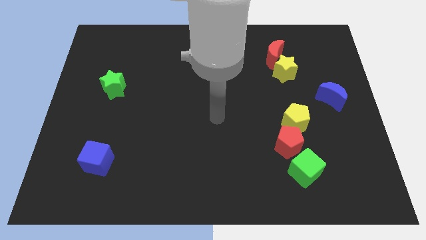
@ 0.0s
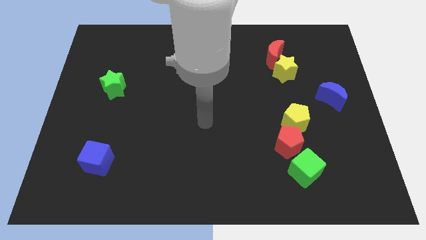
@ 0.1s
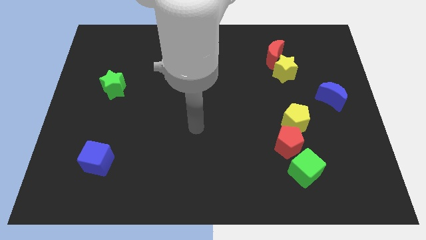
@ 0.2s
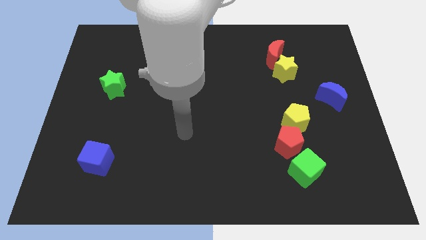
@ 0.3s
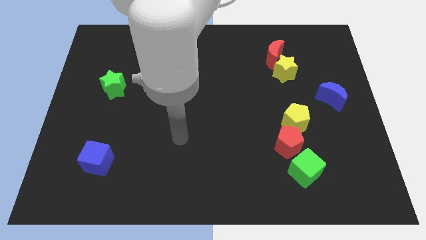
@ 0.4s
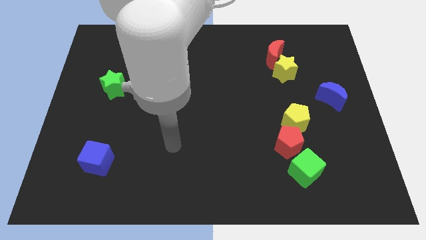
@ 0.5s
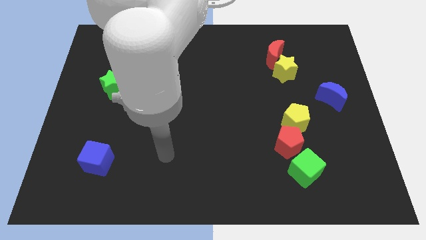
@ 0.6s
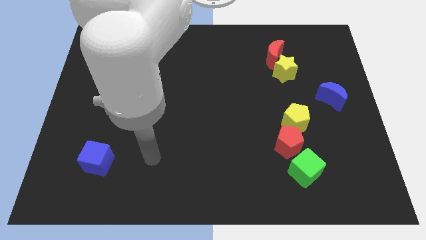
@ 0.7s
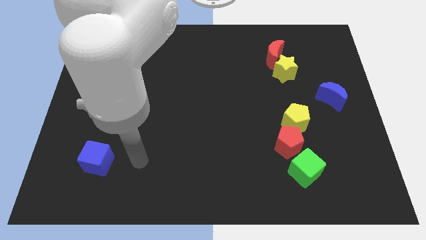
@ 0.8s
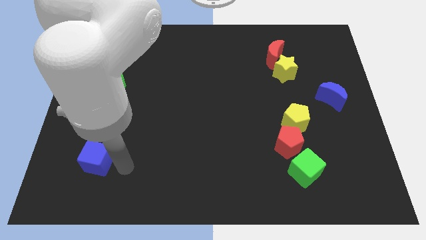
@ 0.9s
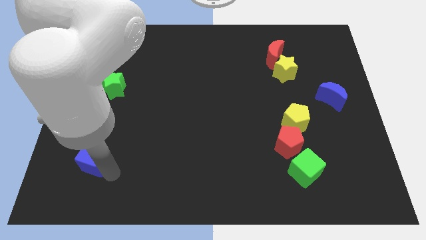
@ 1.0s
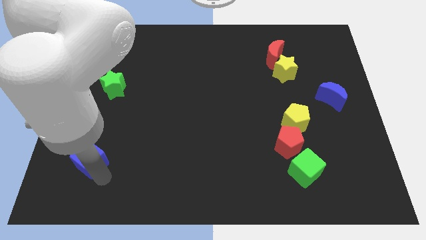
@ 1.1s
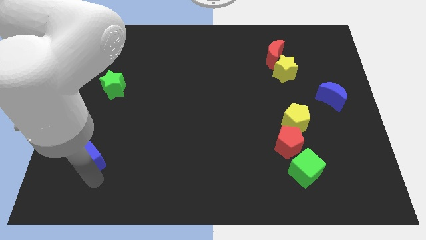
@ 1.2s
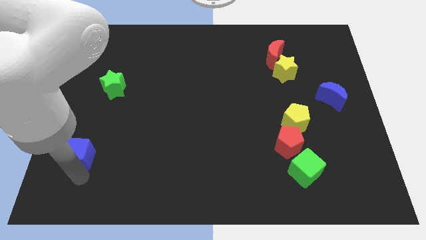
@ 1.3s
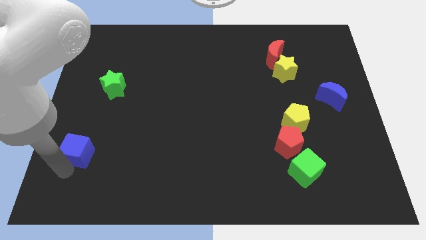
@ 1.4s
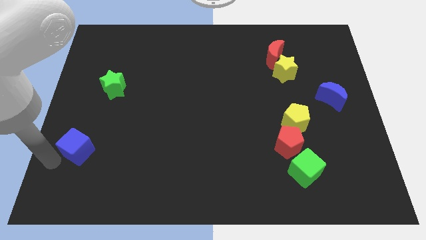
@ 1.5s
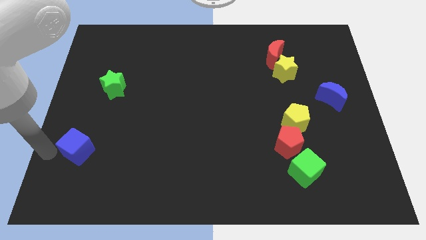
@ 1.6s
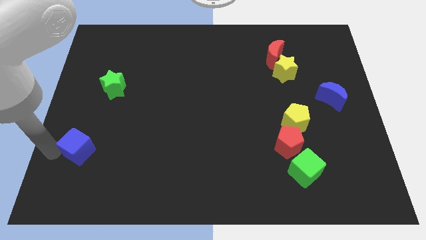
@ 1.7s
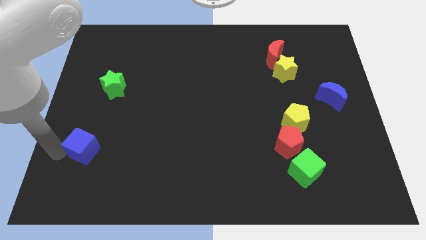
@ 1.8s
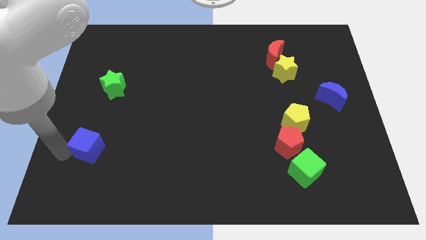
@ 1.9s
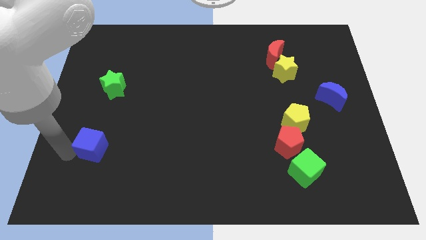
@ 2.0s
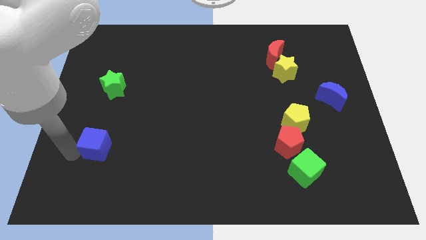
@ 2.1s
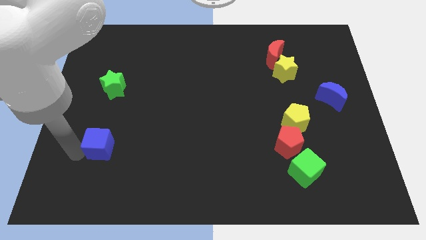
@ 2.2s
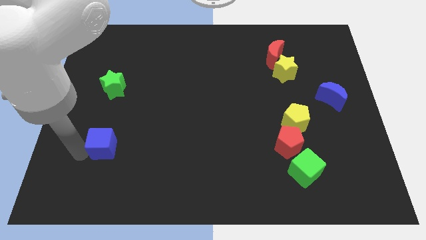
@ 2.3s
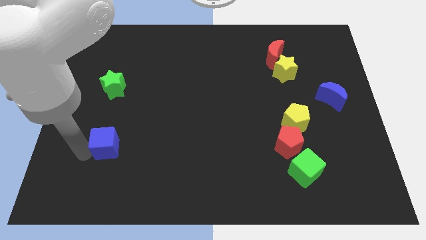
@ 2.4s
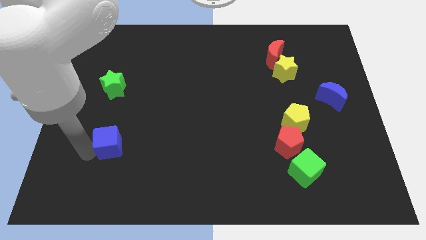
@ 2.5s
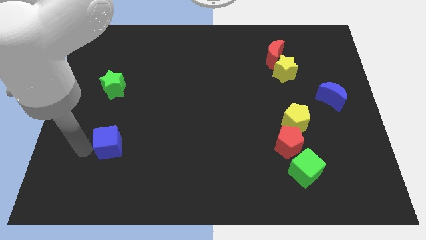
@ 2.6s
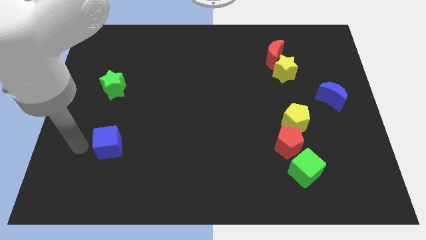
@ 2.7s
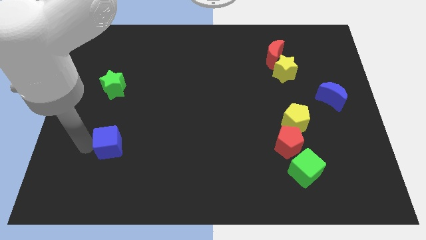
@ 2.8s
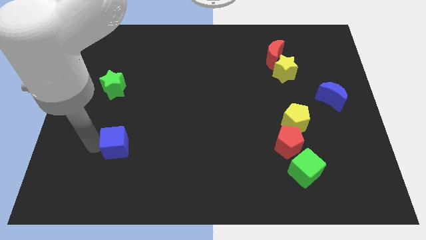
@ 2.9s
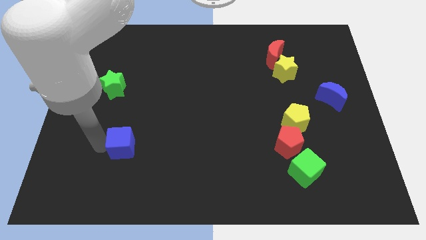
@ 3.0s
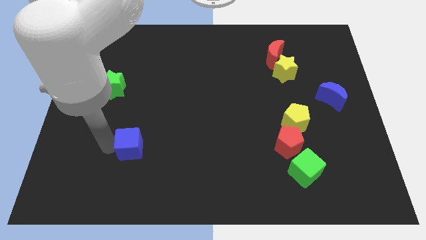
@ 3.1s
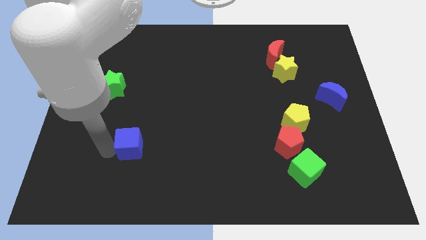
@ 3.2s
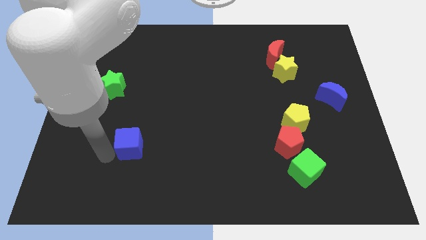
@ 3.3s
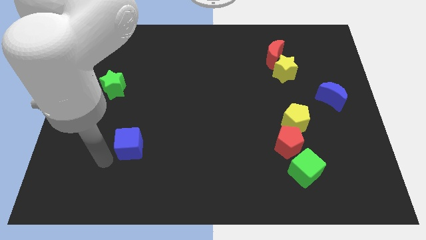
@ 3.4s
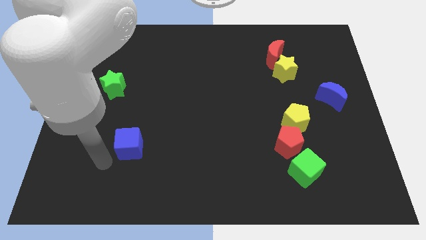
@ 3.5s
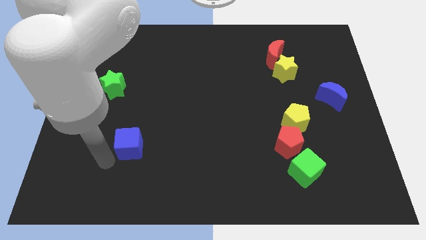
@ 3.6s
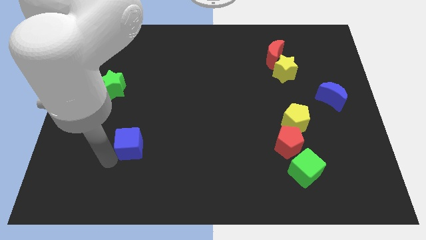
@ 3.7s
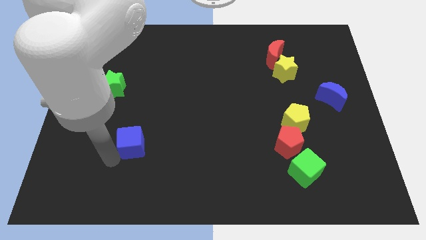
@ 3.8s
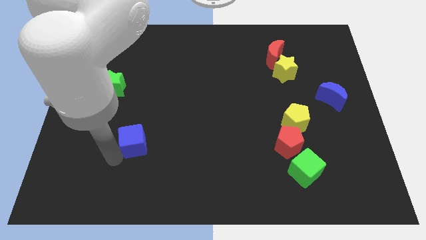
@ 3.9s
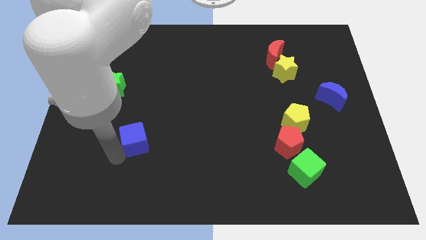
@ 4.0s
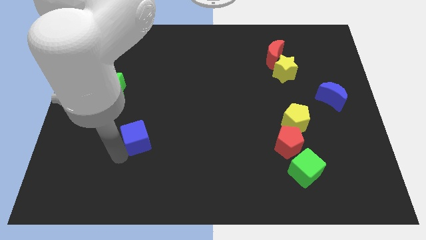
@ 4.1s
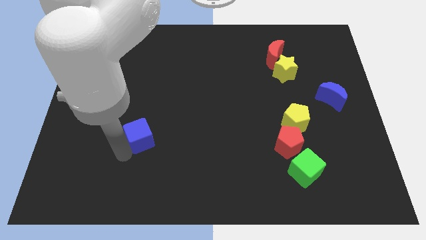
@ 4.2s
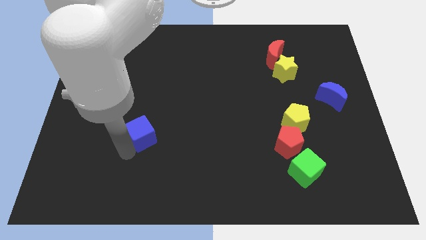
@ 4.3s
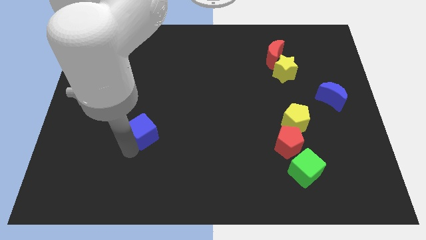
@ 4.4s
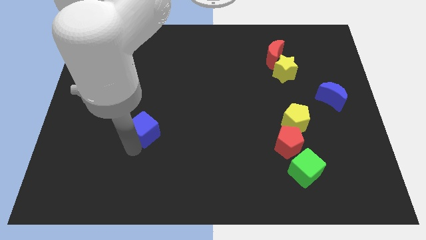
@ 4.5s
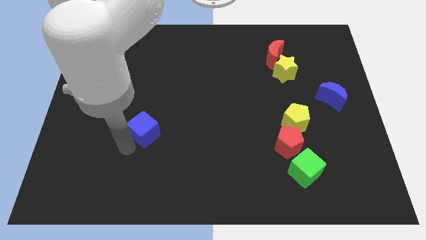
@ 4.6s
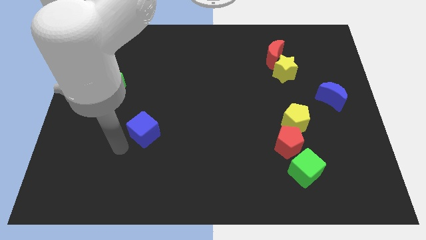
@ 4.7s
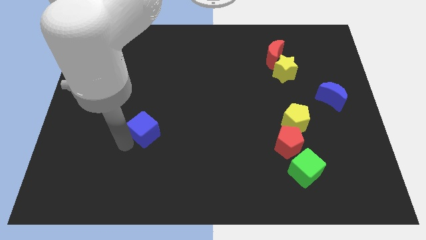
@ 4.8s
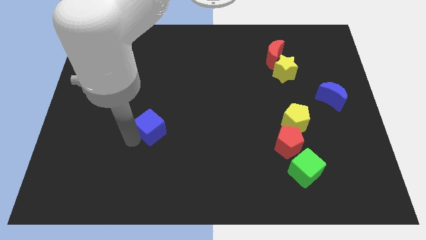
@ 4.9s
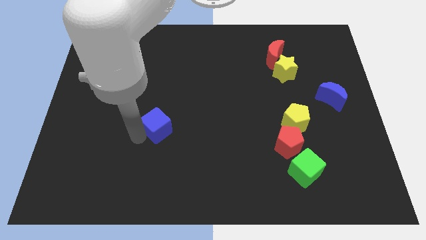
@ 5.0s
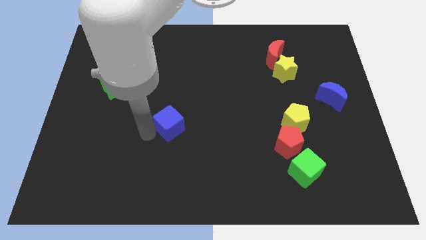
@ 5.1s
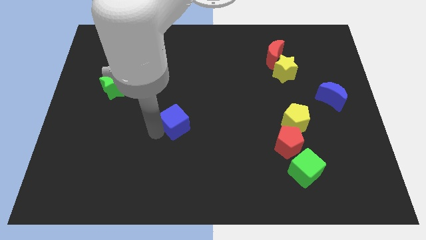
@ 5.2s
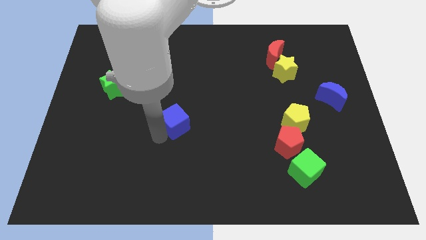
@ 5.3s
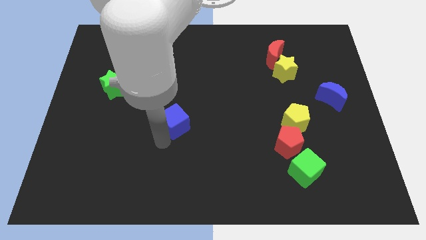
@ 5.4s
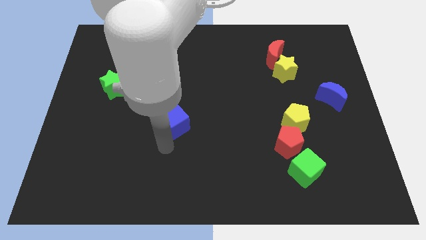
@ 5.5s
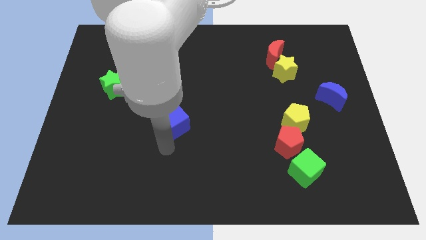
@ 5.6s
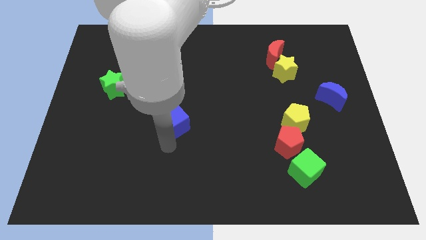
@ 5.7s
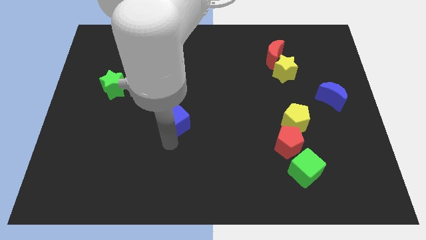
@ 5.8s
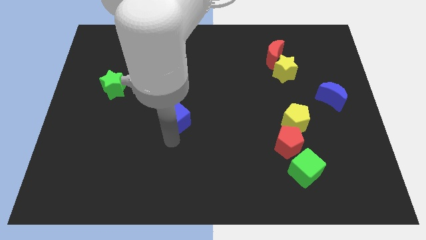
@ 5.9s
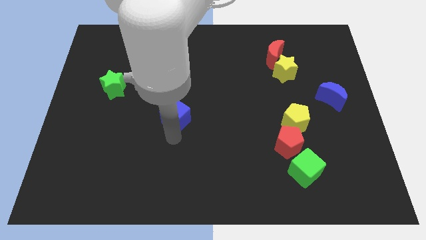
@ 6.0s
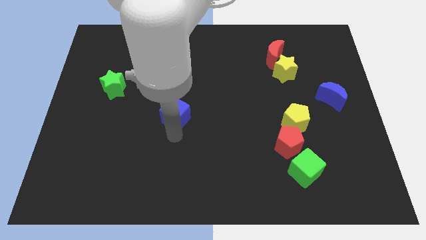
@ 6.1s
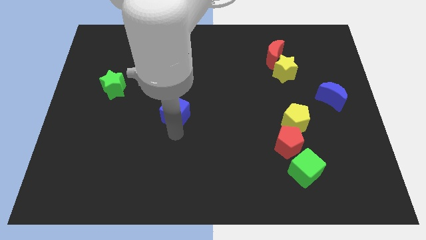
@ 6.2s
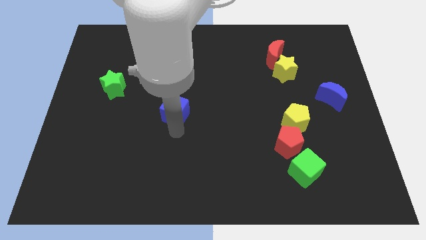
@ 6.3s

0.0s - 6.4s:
push the blue cube diagonally upwards and right

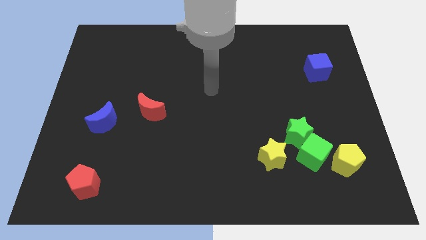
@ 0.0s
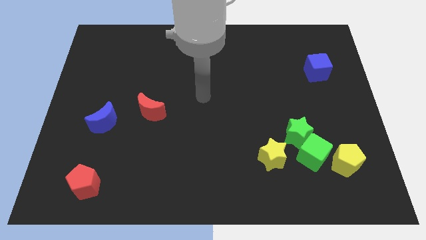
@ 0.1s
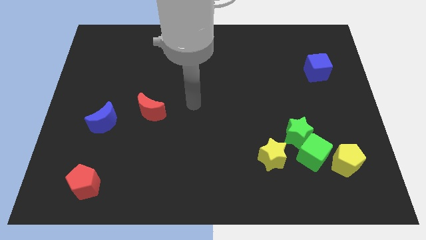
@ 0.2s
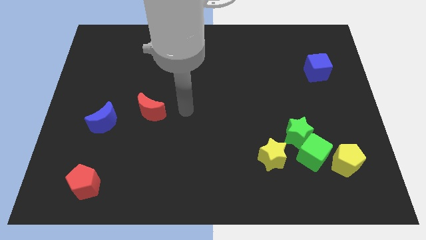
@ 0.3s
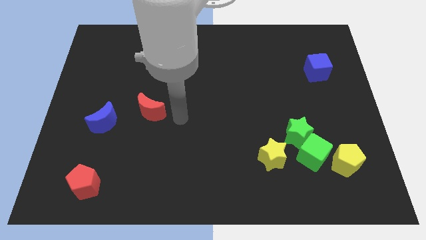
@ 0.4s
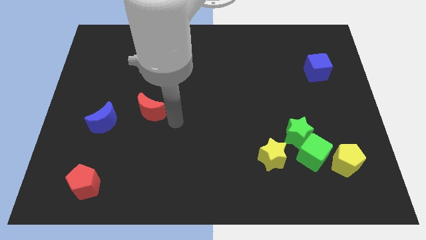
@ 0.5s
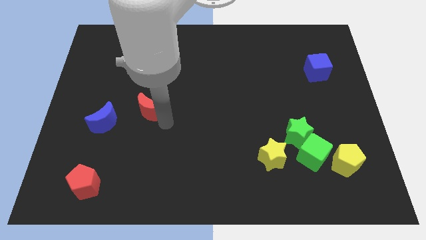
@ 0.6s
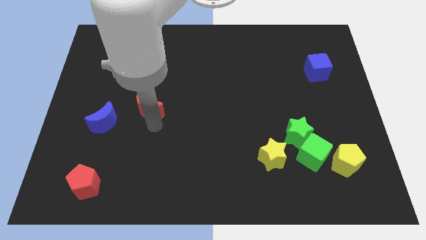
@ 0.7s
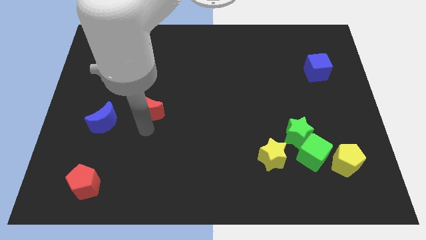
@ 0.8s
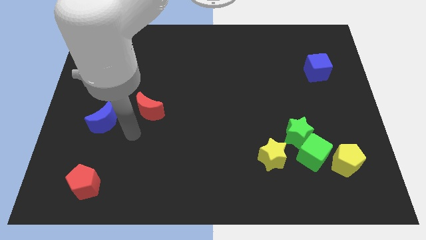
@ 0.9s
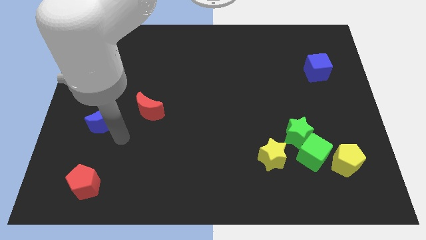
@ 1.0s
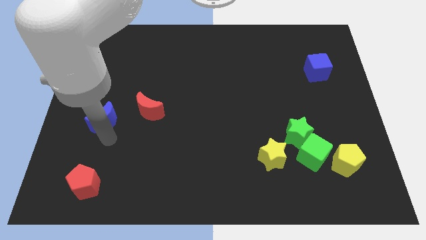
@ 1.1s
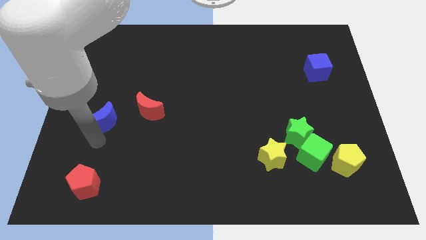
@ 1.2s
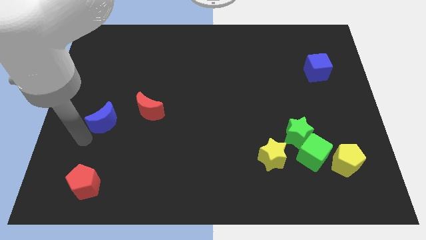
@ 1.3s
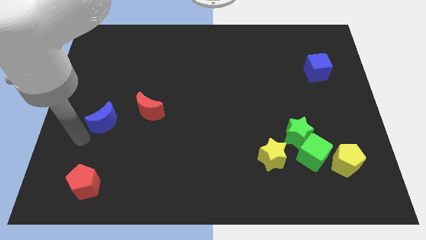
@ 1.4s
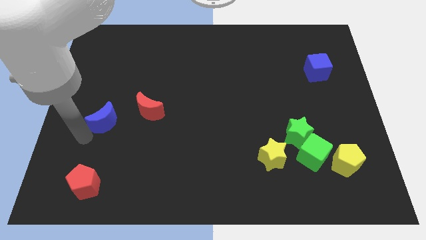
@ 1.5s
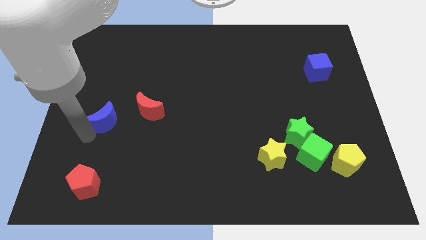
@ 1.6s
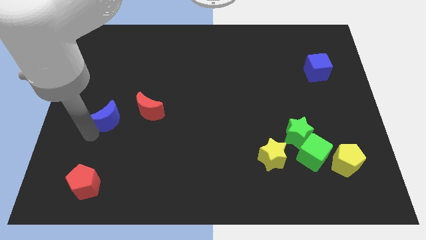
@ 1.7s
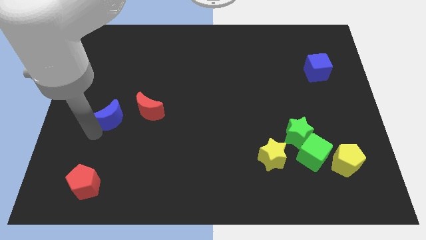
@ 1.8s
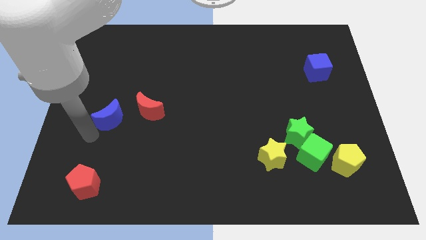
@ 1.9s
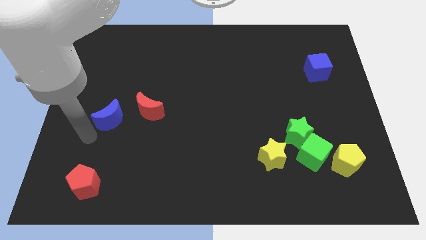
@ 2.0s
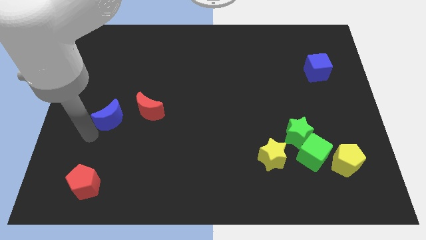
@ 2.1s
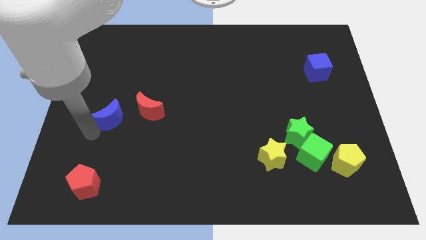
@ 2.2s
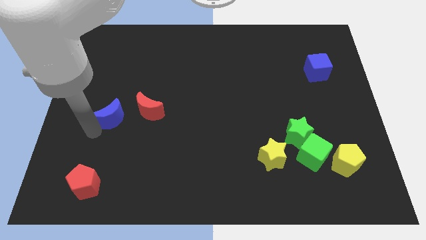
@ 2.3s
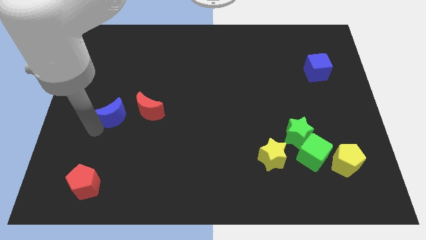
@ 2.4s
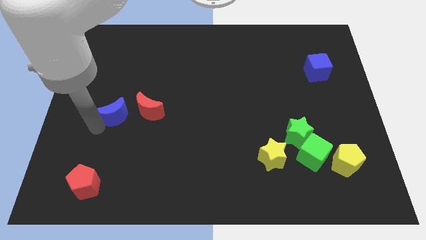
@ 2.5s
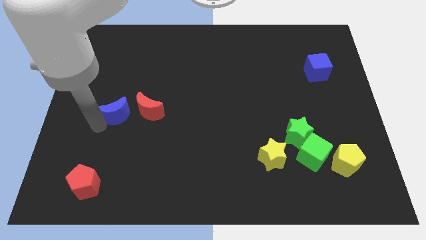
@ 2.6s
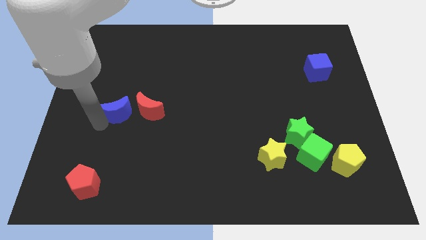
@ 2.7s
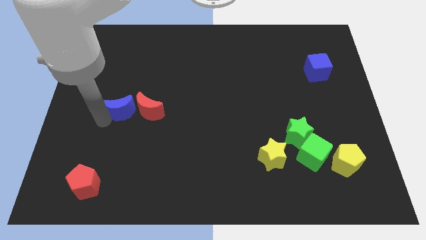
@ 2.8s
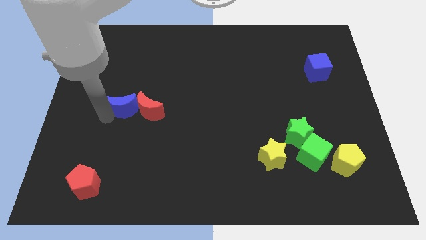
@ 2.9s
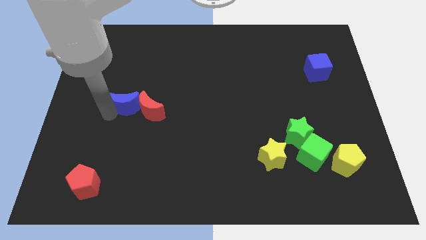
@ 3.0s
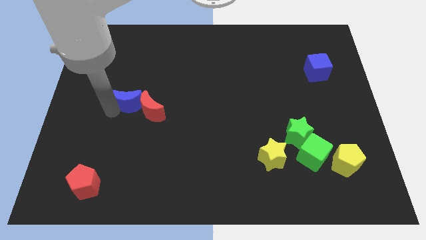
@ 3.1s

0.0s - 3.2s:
slide the blue moon a little upwards and then to the right
